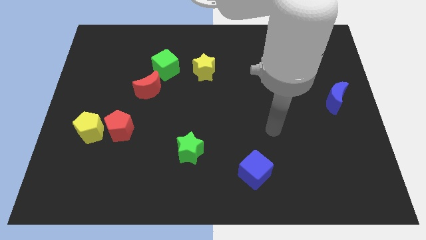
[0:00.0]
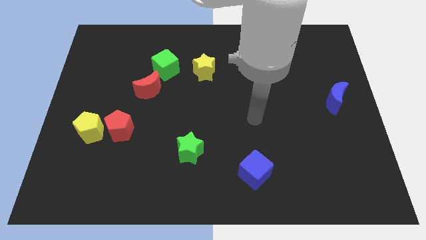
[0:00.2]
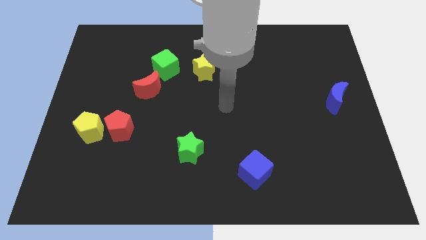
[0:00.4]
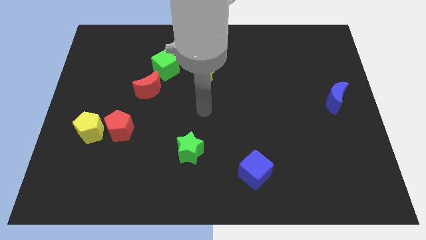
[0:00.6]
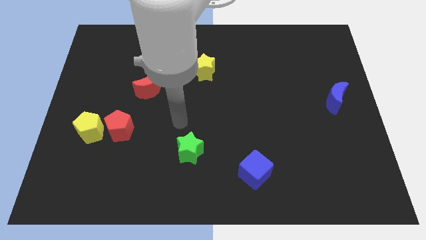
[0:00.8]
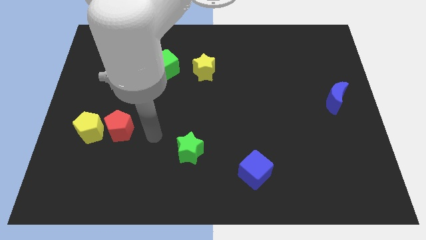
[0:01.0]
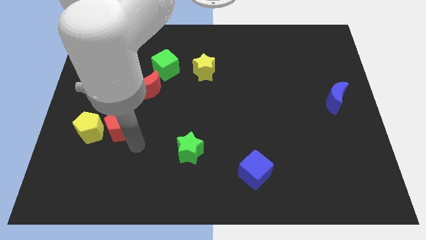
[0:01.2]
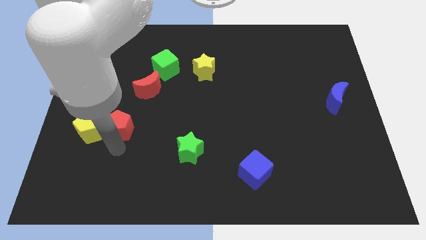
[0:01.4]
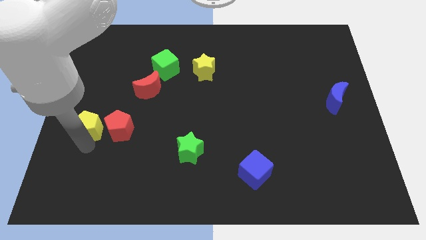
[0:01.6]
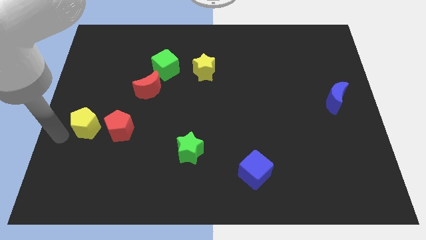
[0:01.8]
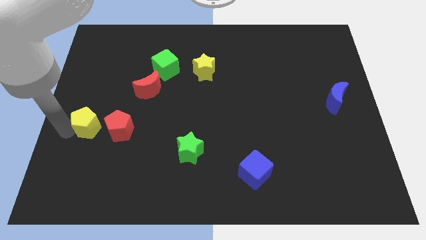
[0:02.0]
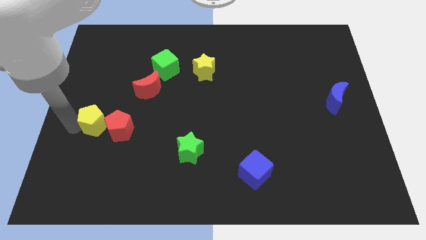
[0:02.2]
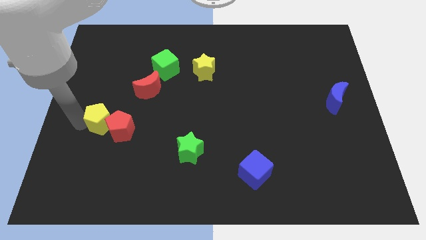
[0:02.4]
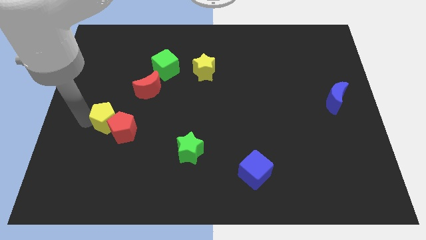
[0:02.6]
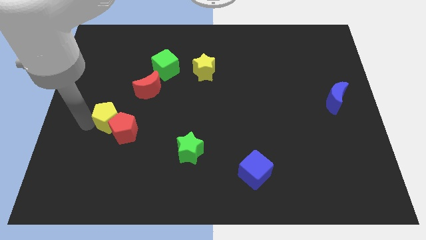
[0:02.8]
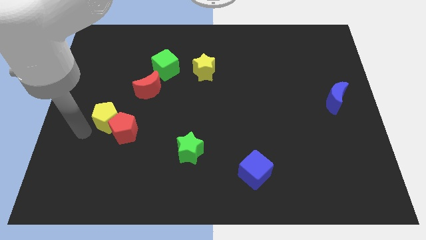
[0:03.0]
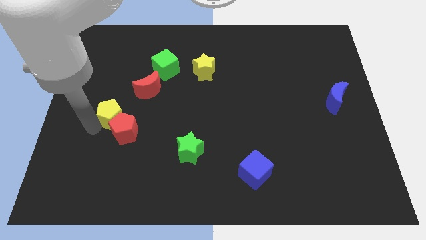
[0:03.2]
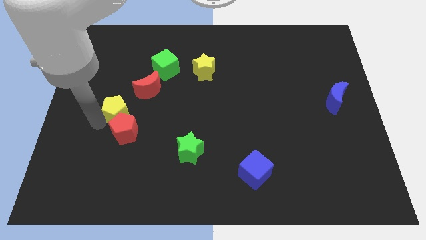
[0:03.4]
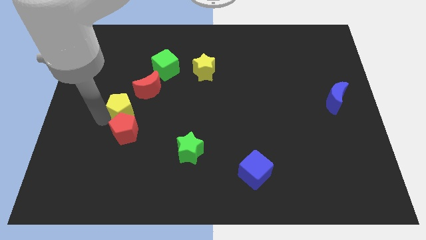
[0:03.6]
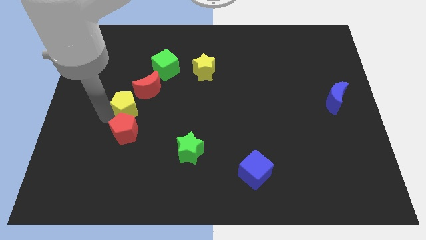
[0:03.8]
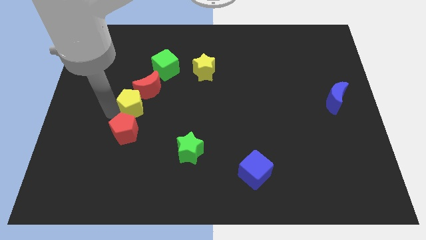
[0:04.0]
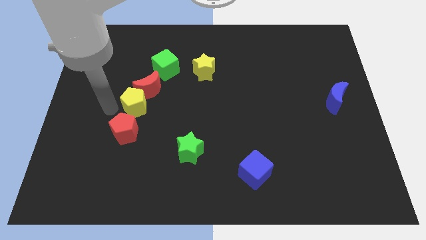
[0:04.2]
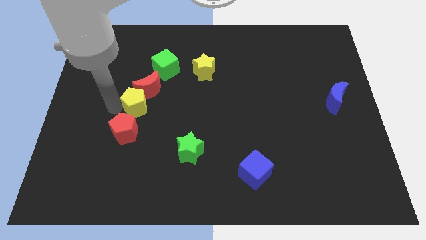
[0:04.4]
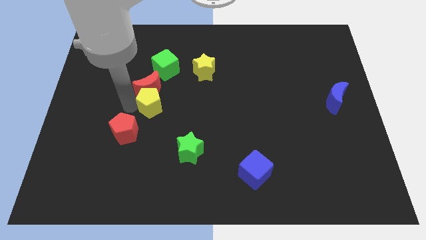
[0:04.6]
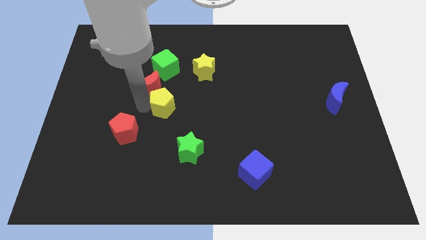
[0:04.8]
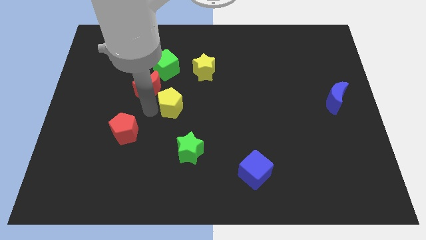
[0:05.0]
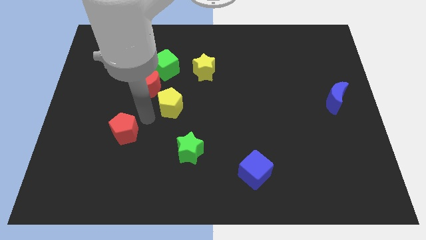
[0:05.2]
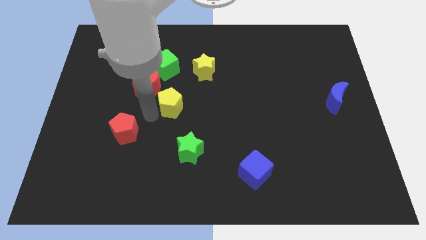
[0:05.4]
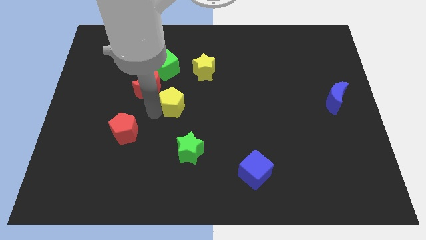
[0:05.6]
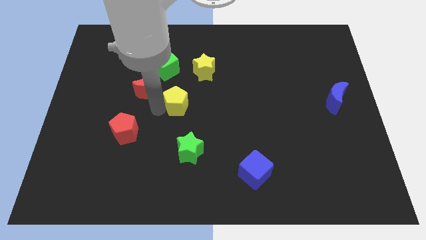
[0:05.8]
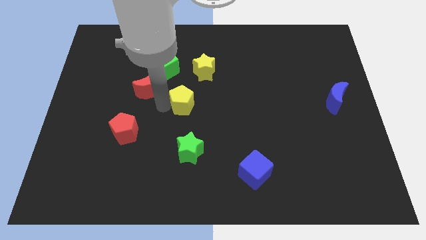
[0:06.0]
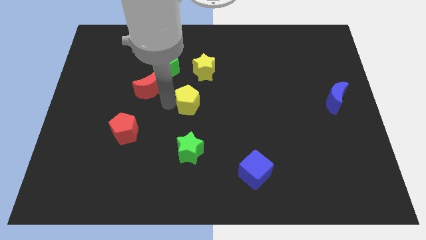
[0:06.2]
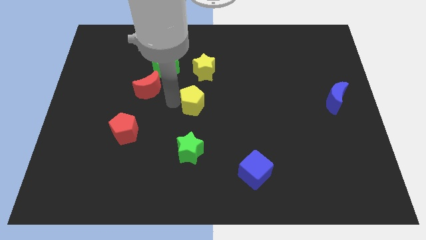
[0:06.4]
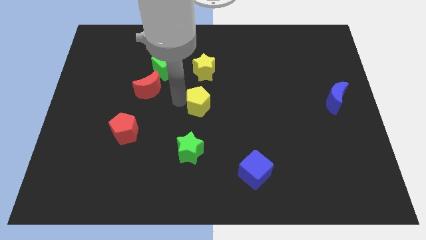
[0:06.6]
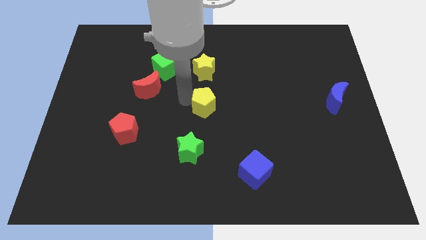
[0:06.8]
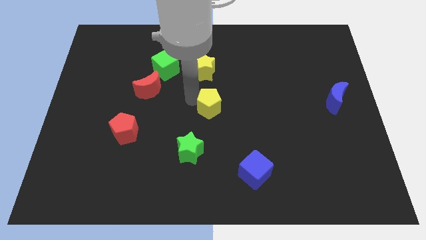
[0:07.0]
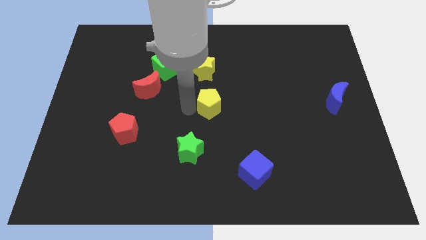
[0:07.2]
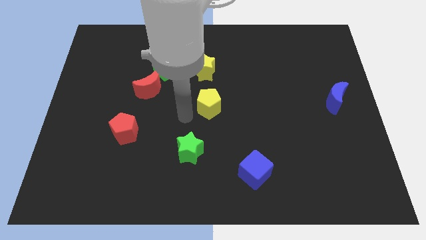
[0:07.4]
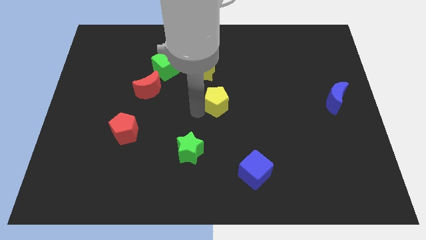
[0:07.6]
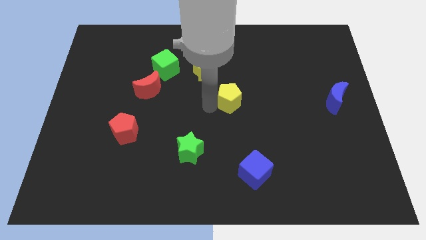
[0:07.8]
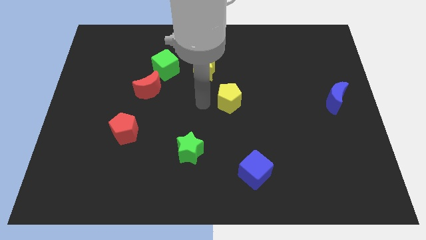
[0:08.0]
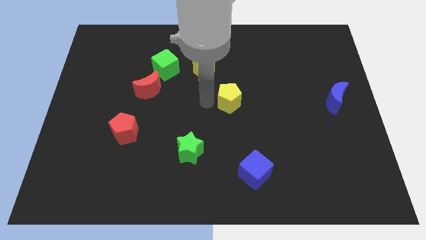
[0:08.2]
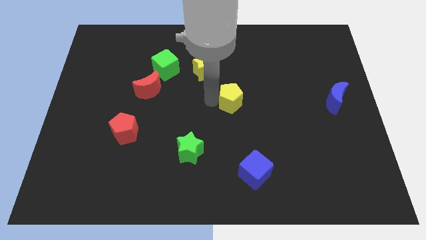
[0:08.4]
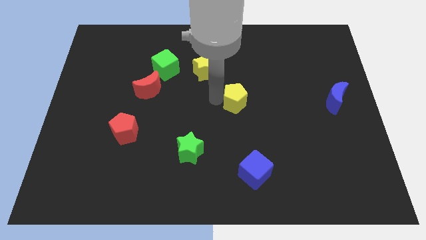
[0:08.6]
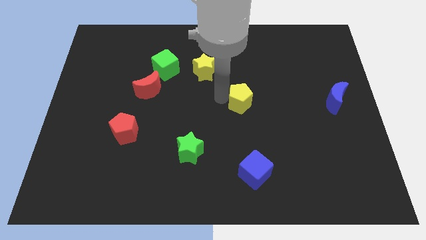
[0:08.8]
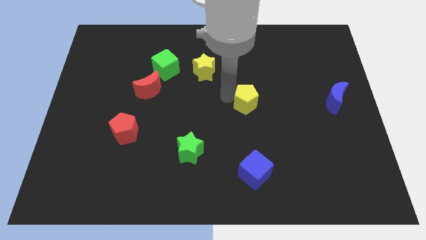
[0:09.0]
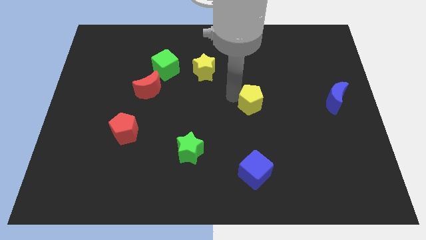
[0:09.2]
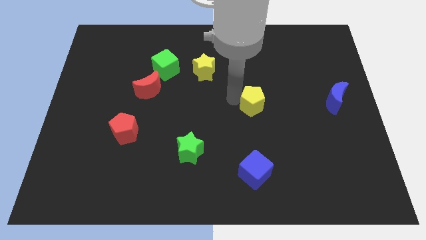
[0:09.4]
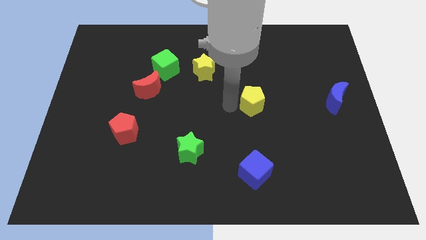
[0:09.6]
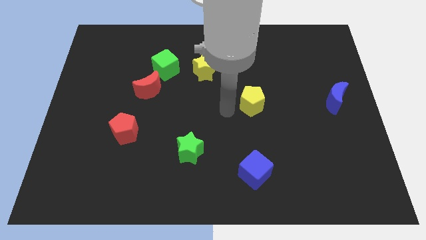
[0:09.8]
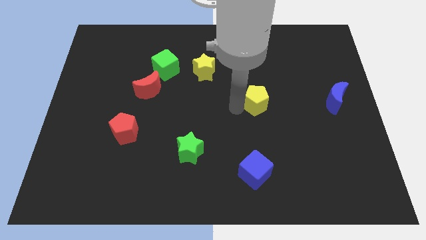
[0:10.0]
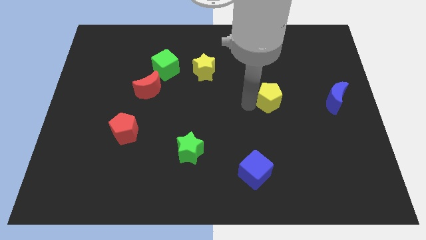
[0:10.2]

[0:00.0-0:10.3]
slide the yellow pentagon to the left side of the blue moon

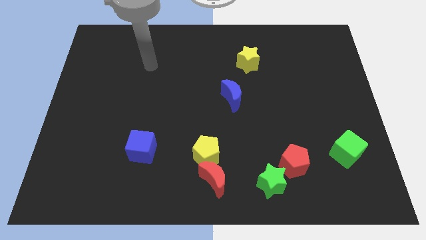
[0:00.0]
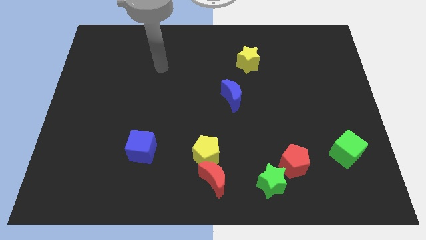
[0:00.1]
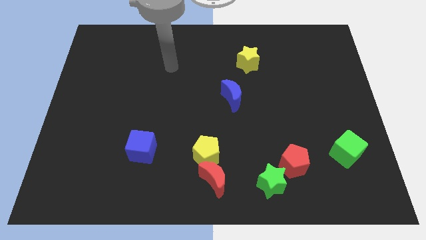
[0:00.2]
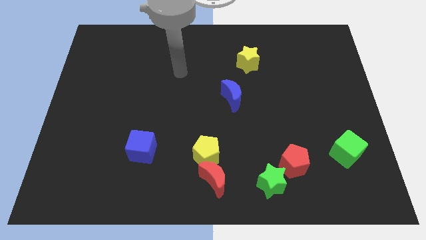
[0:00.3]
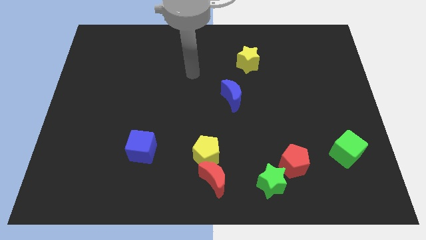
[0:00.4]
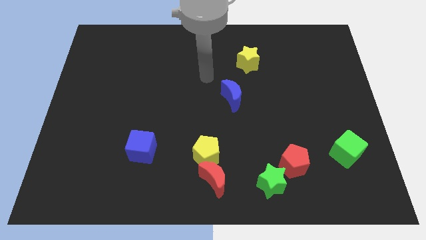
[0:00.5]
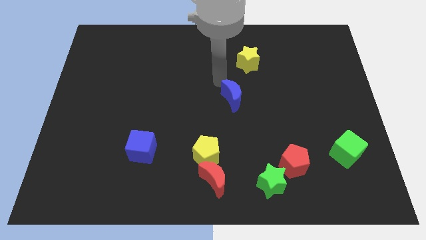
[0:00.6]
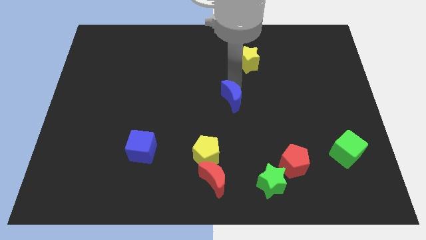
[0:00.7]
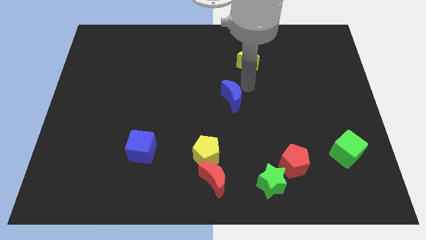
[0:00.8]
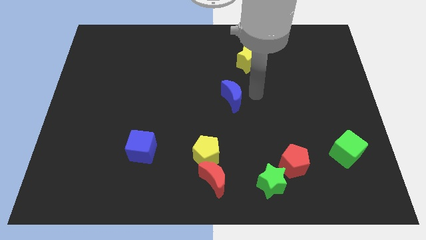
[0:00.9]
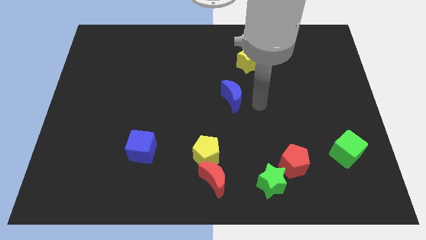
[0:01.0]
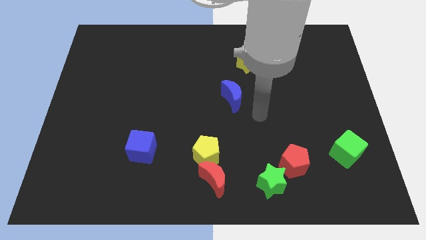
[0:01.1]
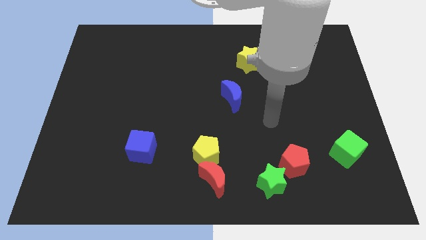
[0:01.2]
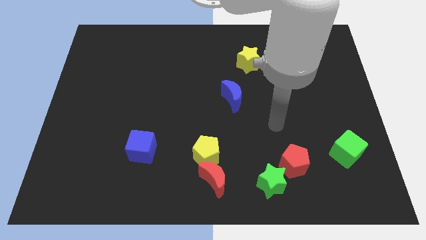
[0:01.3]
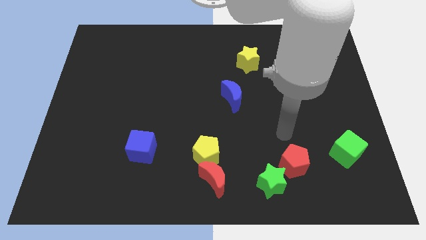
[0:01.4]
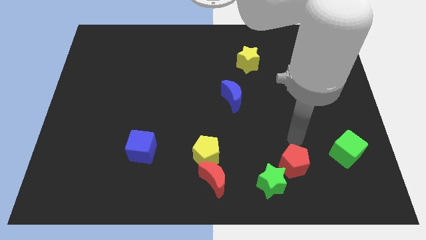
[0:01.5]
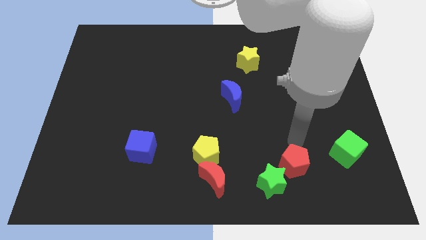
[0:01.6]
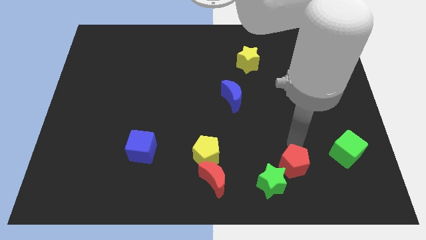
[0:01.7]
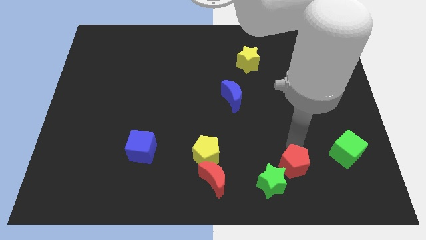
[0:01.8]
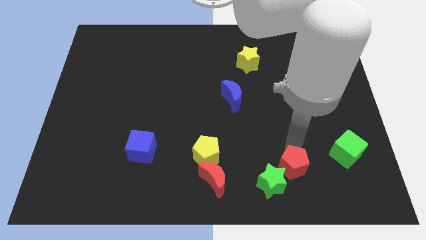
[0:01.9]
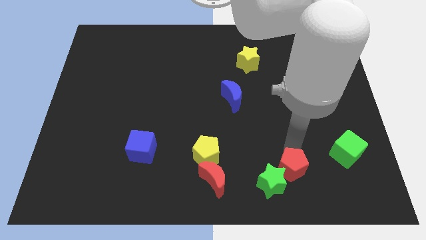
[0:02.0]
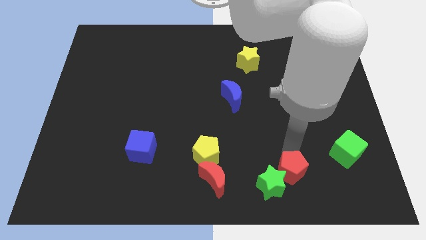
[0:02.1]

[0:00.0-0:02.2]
slide the red pentagon right of the red moon

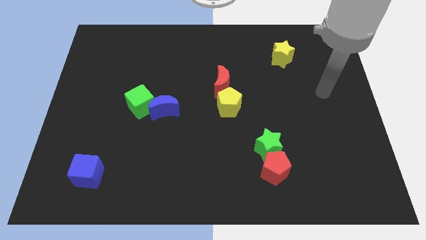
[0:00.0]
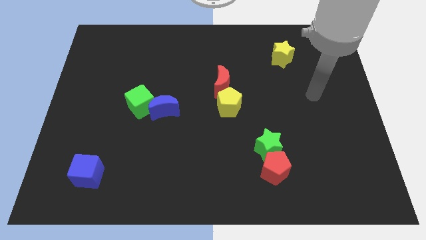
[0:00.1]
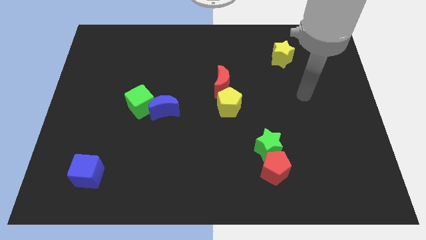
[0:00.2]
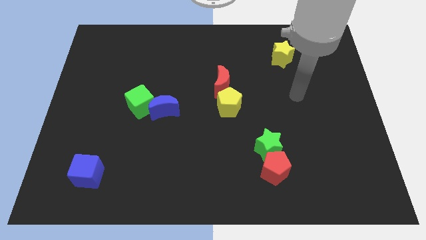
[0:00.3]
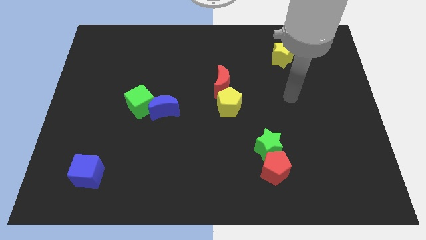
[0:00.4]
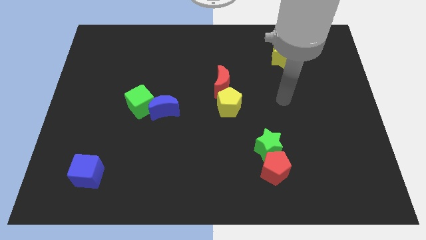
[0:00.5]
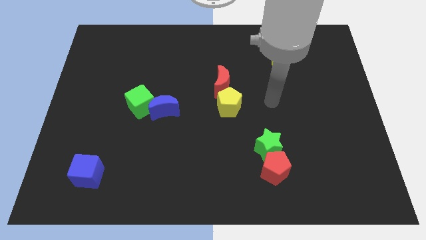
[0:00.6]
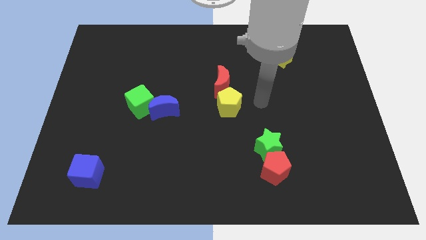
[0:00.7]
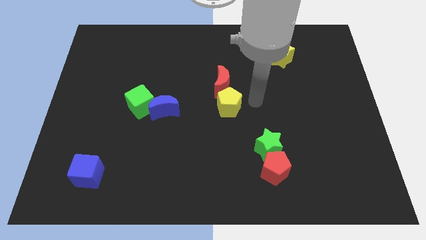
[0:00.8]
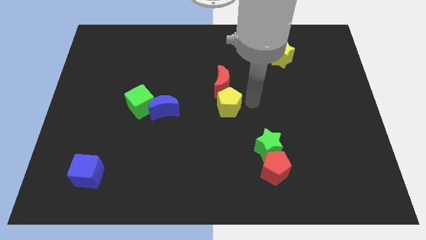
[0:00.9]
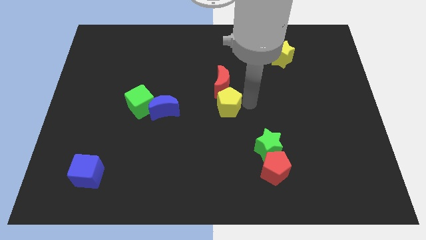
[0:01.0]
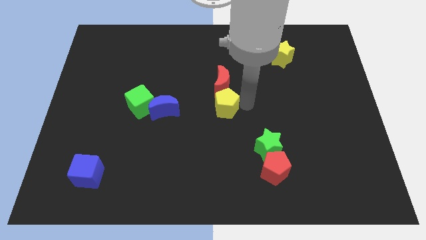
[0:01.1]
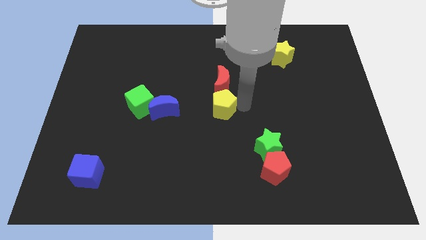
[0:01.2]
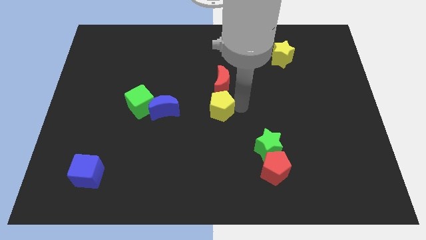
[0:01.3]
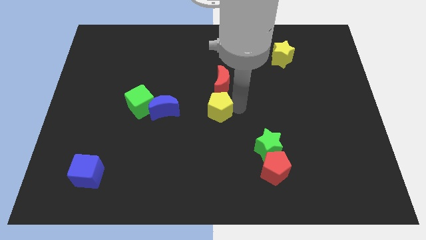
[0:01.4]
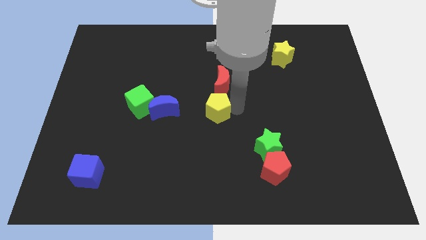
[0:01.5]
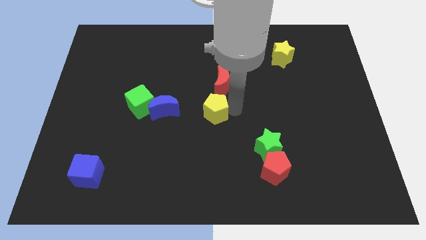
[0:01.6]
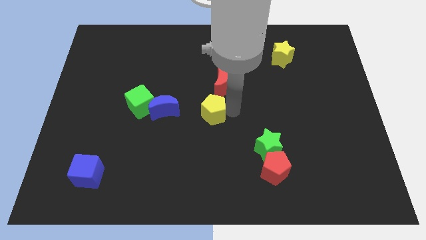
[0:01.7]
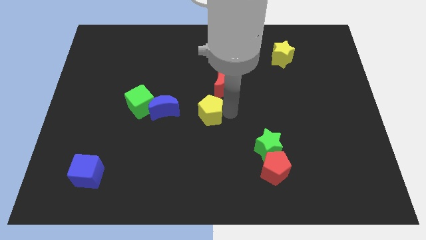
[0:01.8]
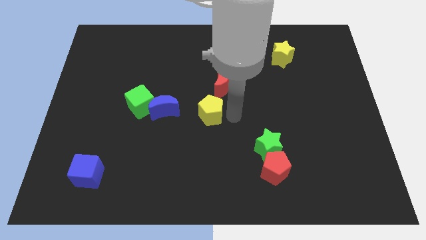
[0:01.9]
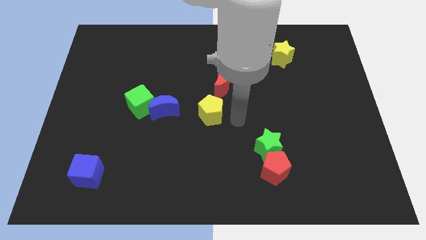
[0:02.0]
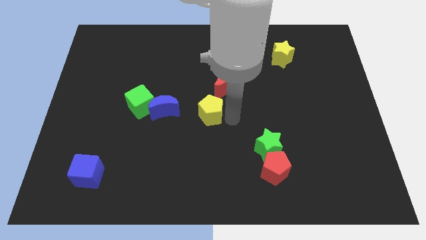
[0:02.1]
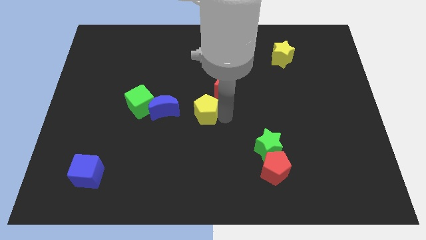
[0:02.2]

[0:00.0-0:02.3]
put the yellow pentagon to the right side of the green cube
